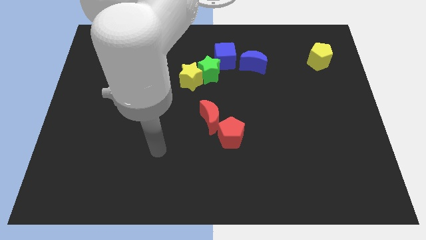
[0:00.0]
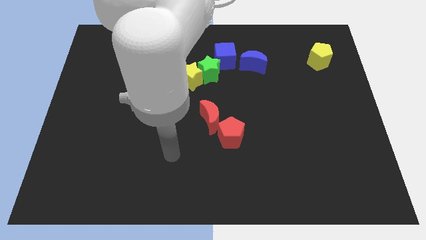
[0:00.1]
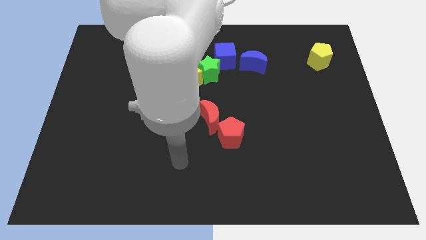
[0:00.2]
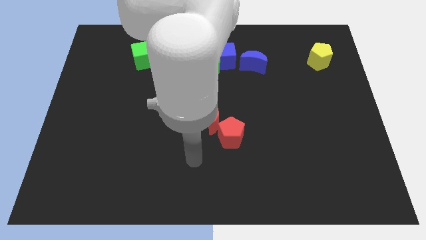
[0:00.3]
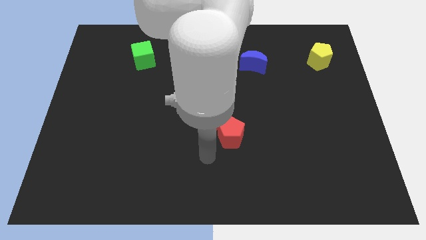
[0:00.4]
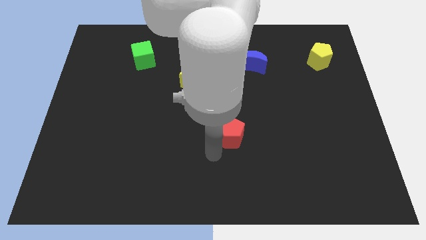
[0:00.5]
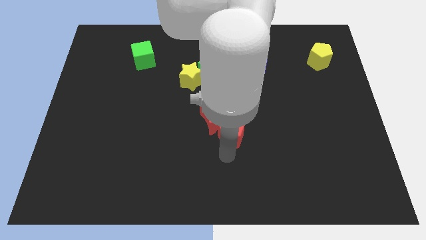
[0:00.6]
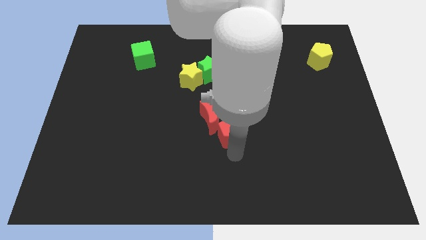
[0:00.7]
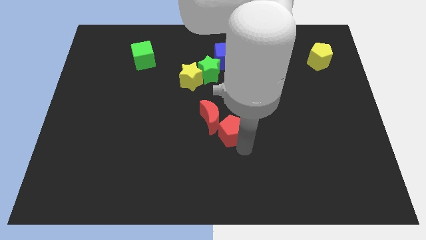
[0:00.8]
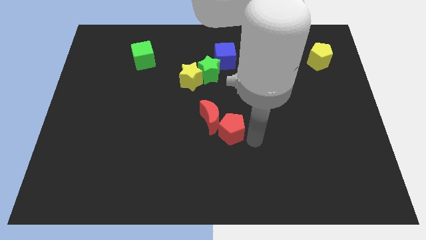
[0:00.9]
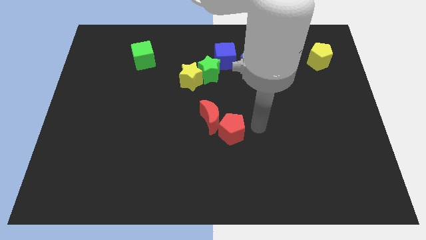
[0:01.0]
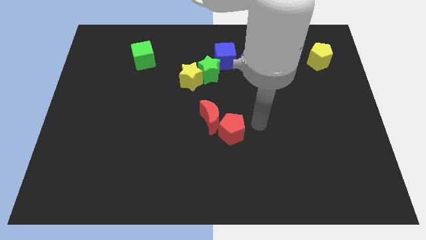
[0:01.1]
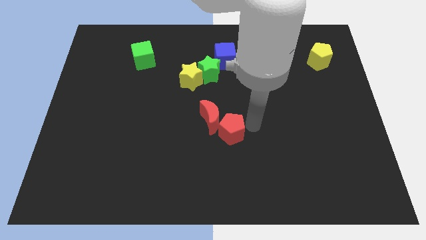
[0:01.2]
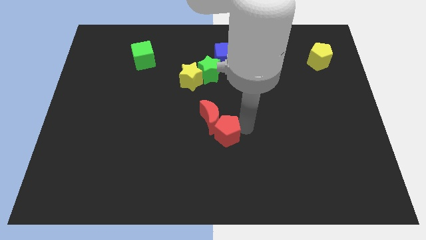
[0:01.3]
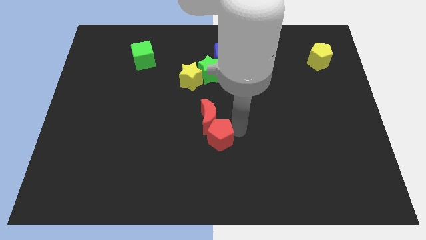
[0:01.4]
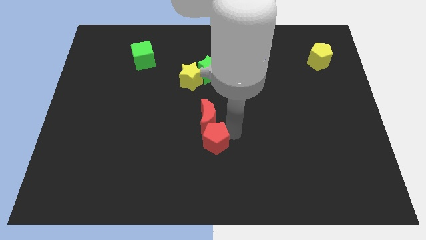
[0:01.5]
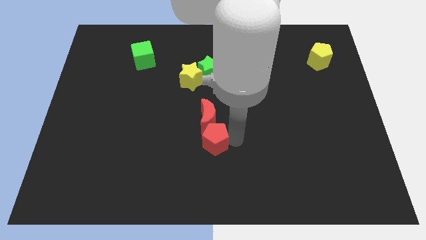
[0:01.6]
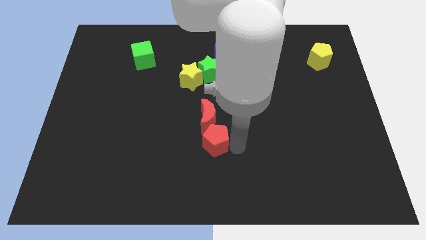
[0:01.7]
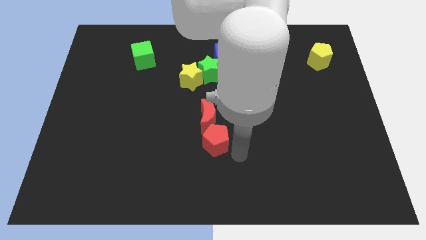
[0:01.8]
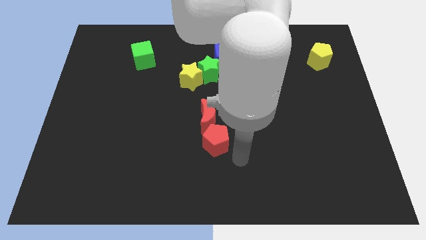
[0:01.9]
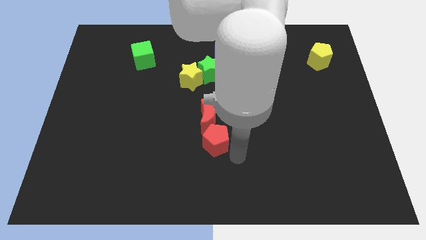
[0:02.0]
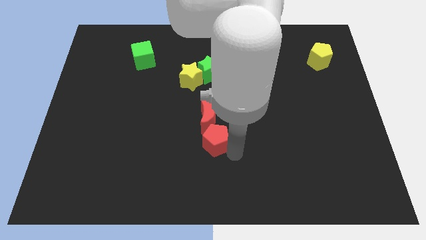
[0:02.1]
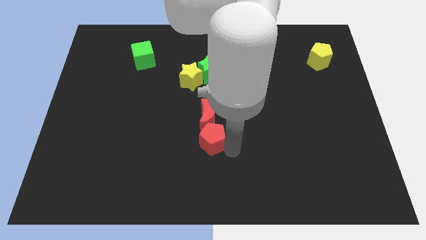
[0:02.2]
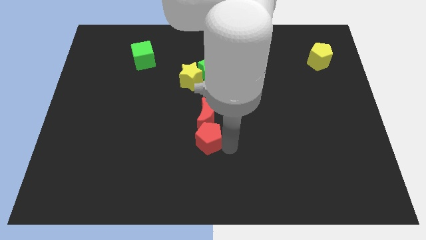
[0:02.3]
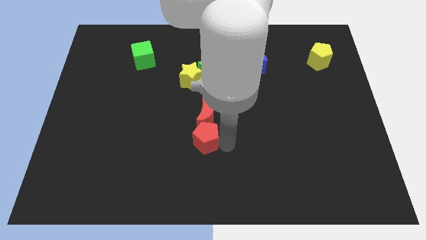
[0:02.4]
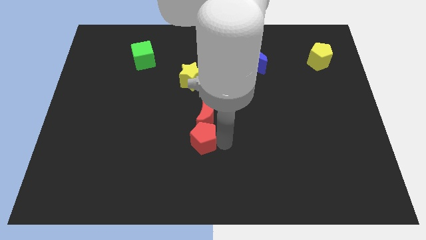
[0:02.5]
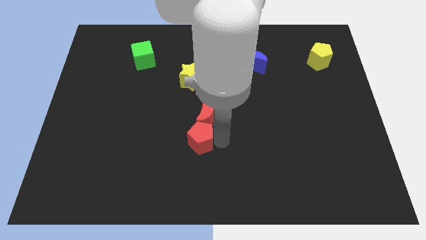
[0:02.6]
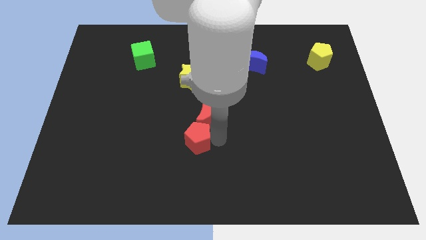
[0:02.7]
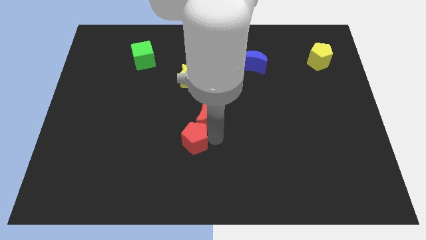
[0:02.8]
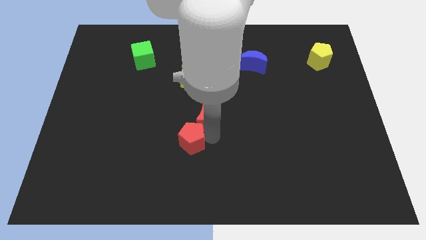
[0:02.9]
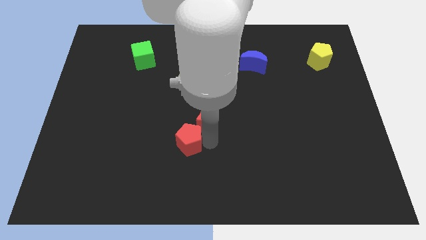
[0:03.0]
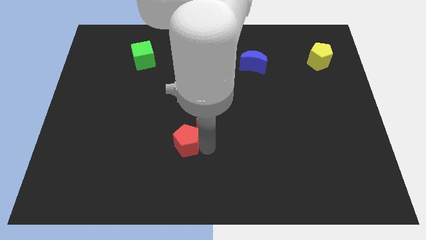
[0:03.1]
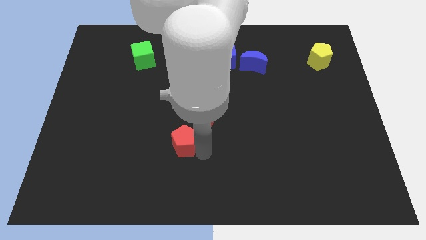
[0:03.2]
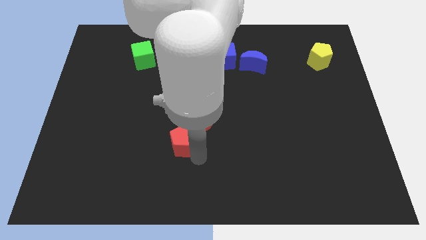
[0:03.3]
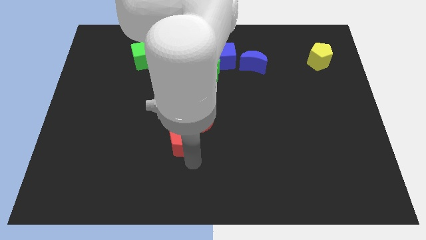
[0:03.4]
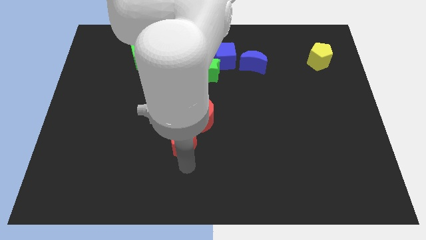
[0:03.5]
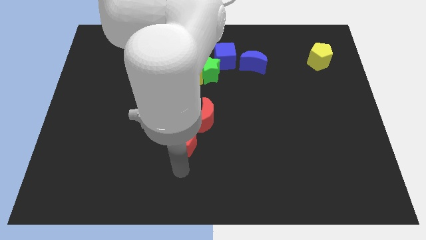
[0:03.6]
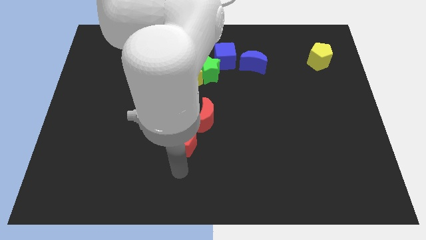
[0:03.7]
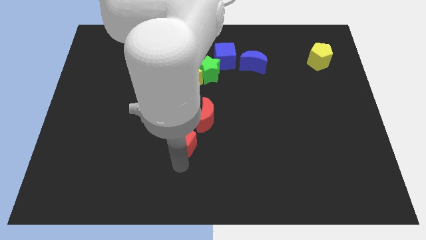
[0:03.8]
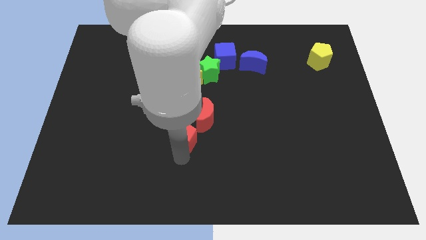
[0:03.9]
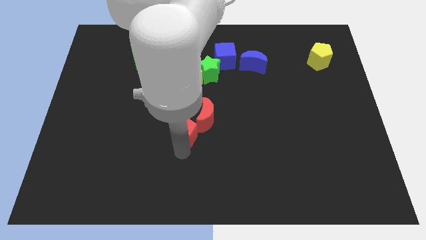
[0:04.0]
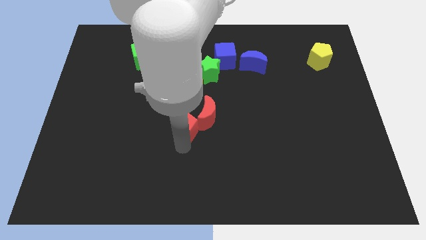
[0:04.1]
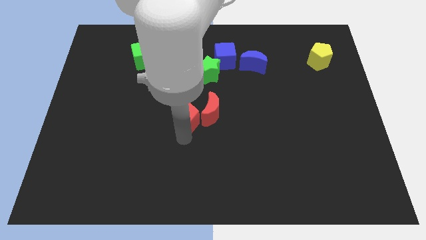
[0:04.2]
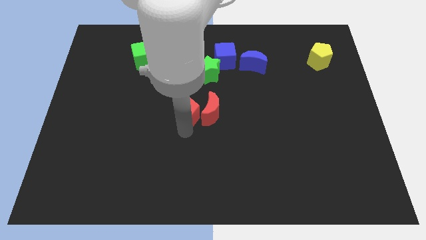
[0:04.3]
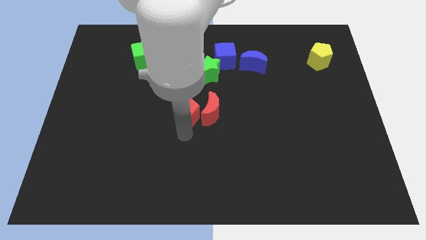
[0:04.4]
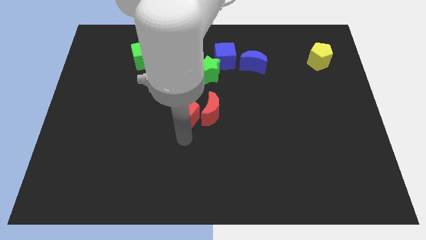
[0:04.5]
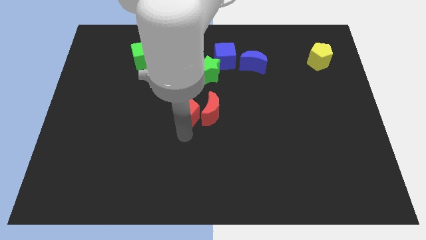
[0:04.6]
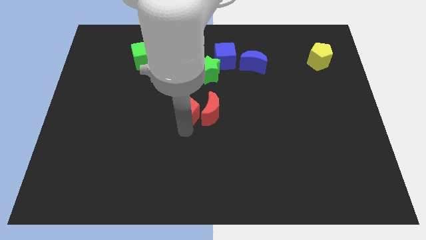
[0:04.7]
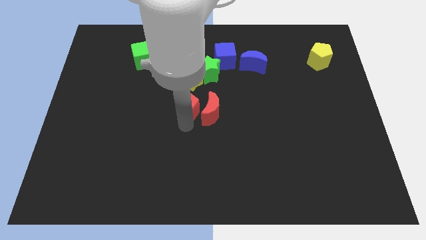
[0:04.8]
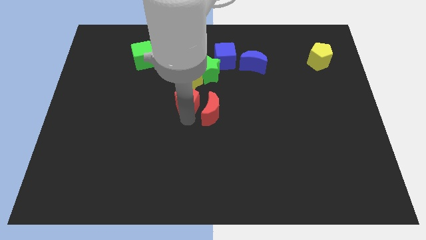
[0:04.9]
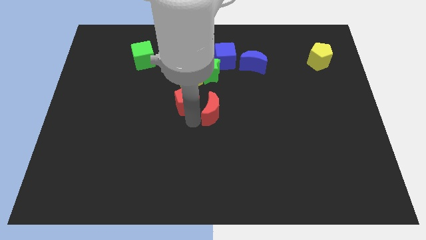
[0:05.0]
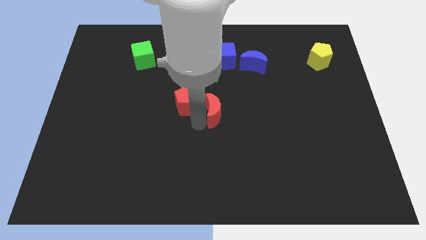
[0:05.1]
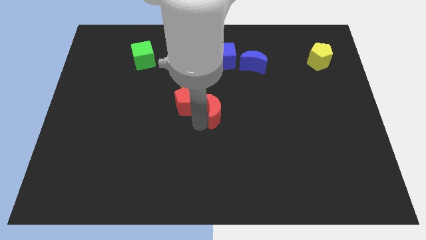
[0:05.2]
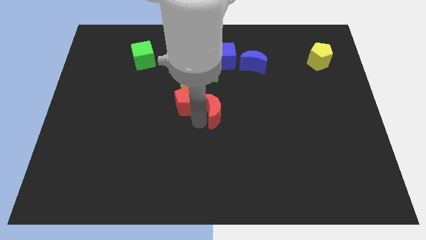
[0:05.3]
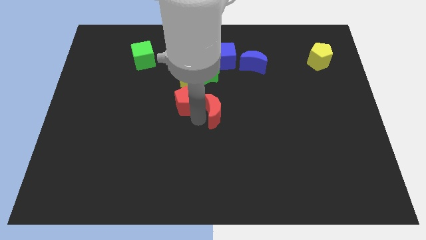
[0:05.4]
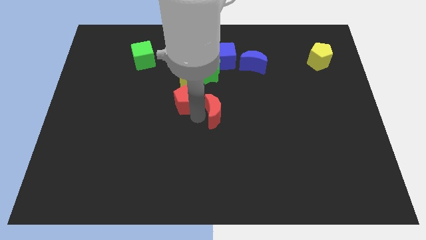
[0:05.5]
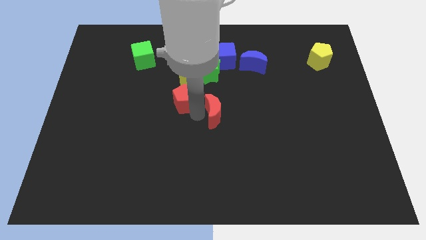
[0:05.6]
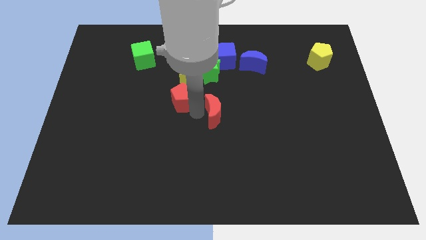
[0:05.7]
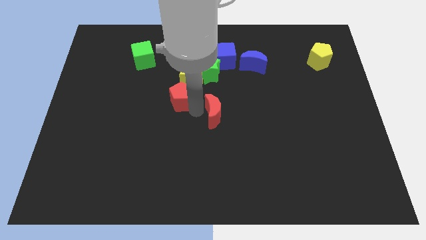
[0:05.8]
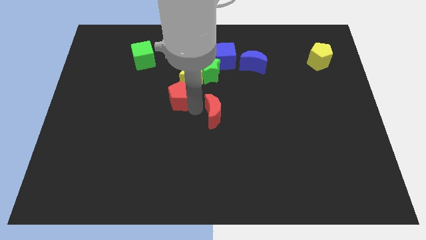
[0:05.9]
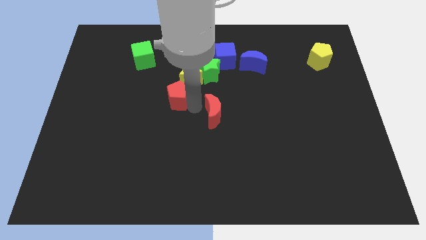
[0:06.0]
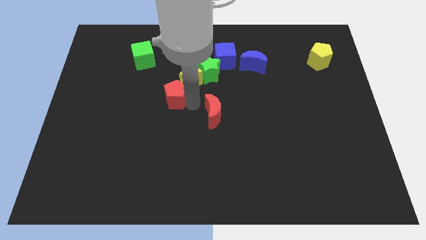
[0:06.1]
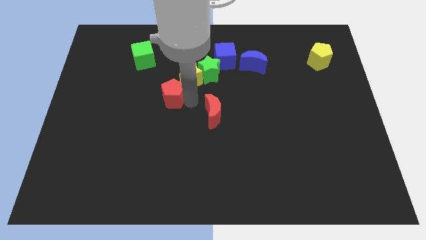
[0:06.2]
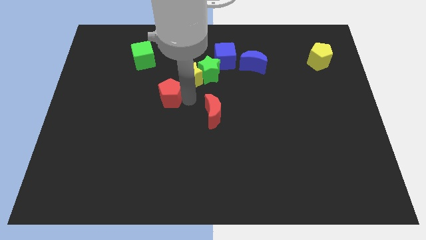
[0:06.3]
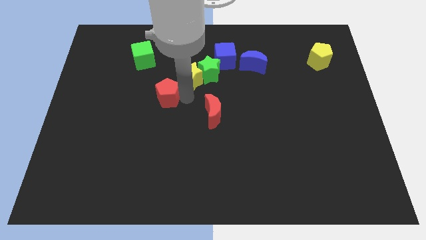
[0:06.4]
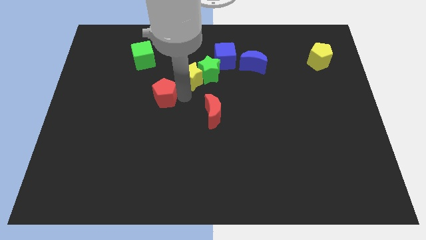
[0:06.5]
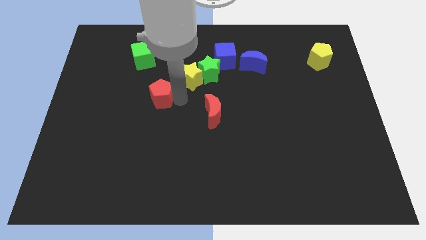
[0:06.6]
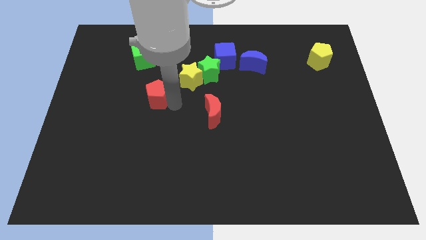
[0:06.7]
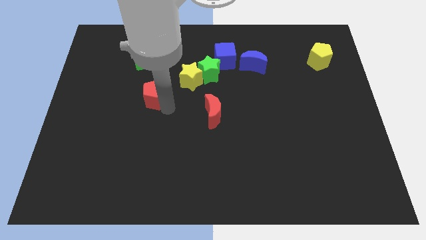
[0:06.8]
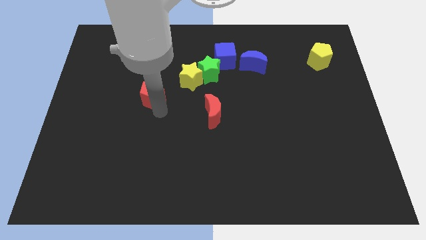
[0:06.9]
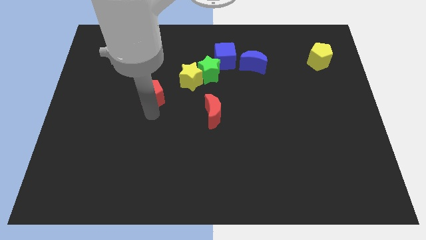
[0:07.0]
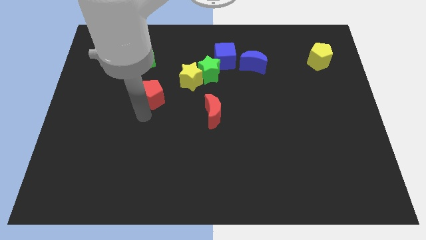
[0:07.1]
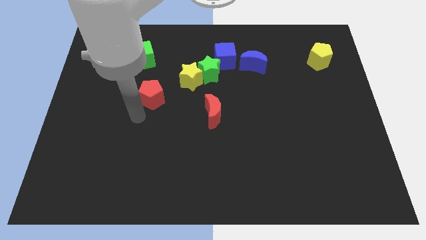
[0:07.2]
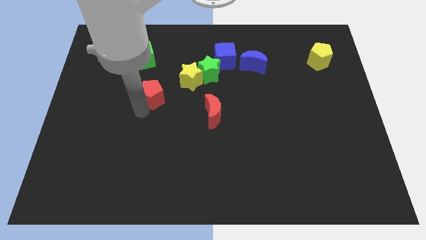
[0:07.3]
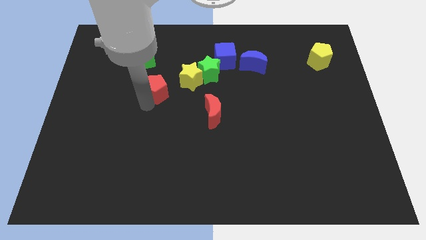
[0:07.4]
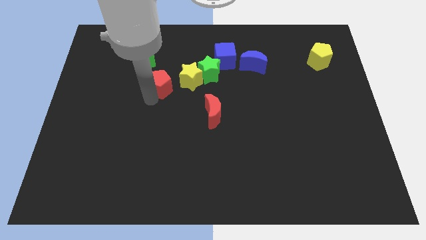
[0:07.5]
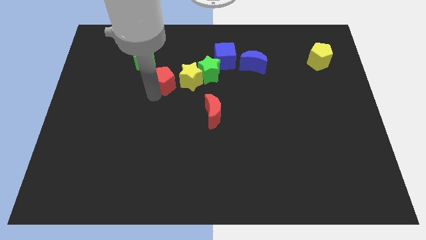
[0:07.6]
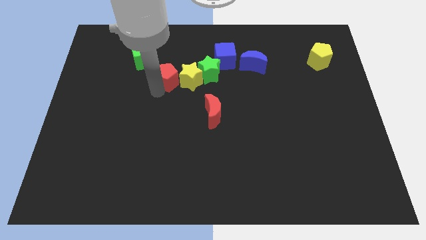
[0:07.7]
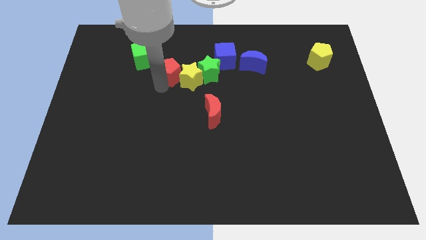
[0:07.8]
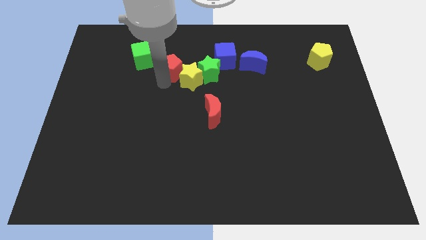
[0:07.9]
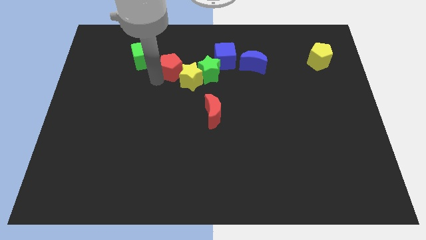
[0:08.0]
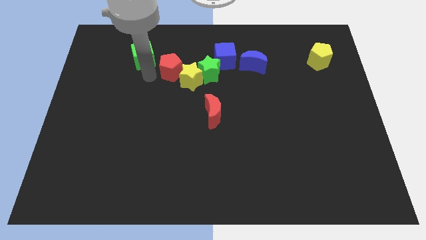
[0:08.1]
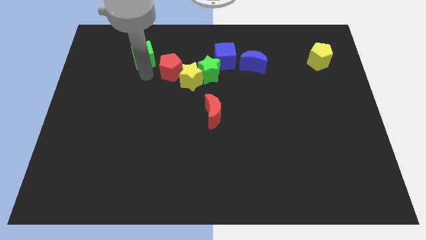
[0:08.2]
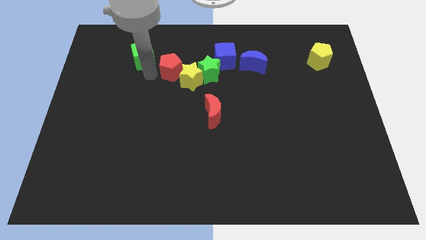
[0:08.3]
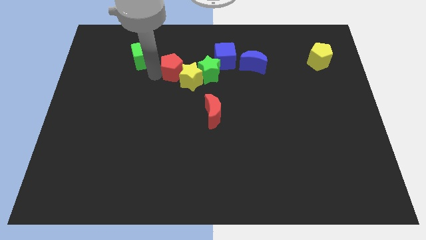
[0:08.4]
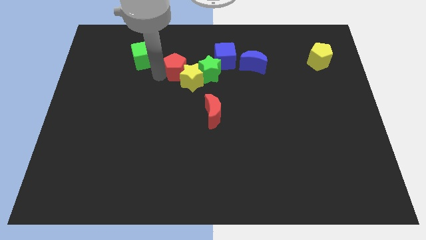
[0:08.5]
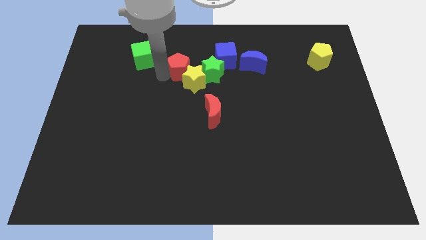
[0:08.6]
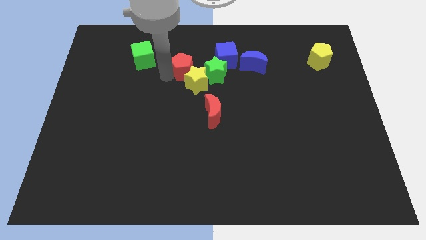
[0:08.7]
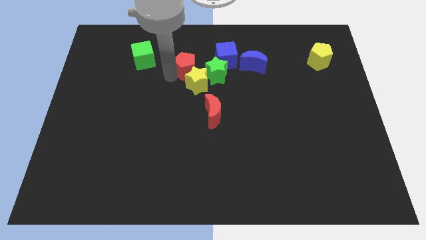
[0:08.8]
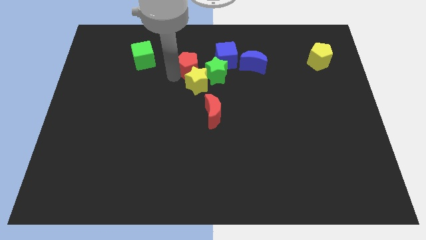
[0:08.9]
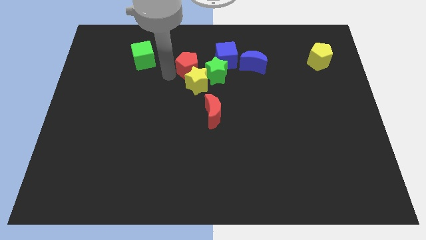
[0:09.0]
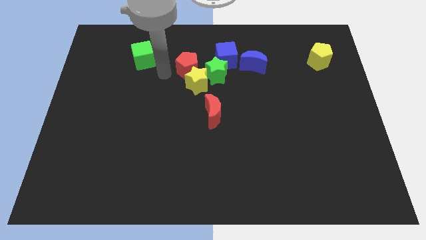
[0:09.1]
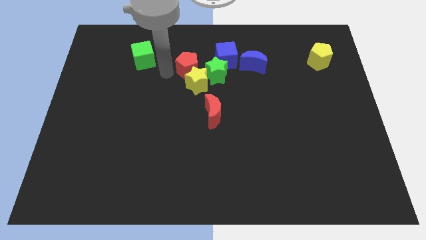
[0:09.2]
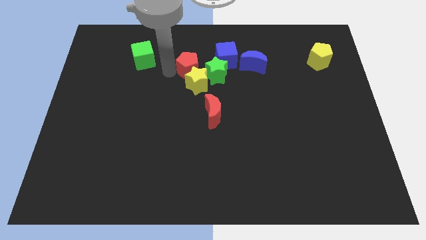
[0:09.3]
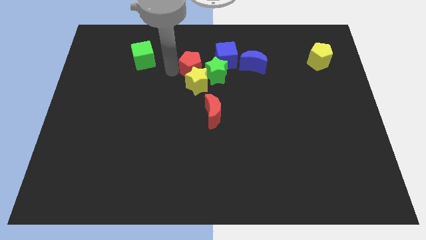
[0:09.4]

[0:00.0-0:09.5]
push the red pentagon to the left side of the blue moon
